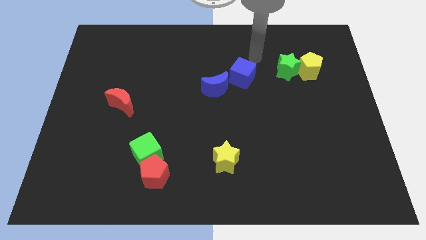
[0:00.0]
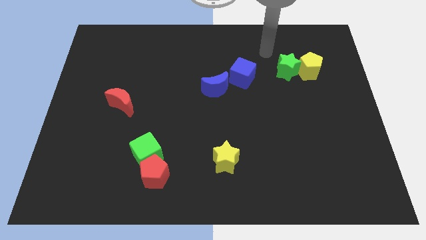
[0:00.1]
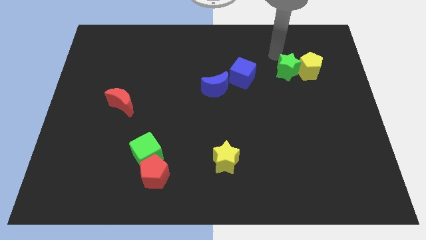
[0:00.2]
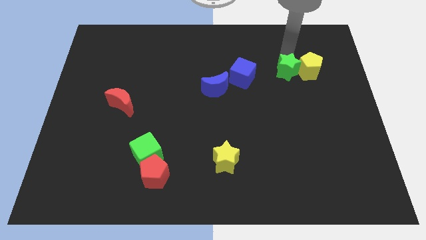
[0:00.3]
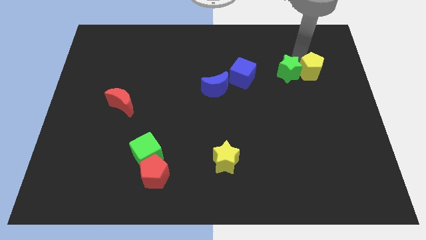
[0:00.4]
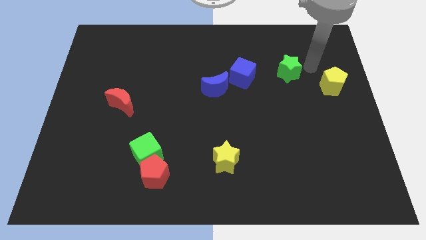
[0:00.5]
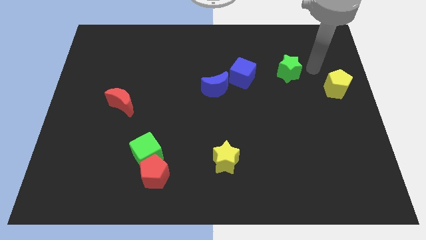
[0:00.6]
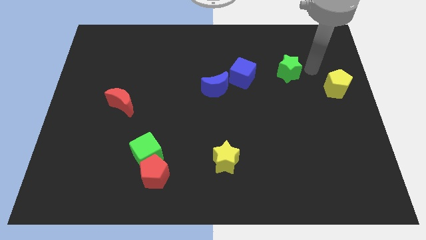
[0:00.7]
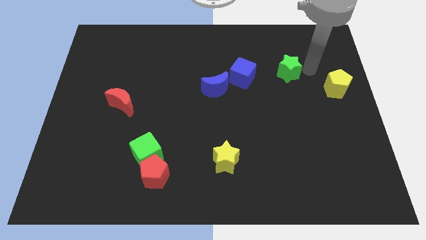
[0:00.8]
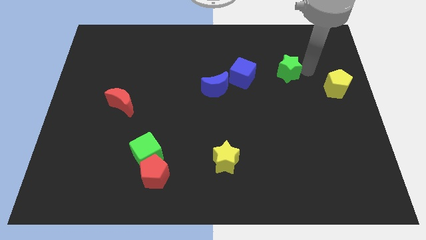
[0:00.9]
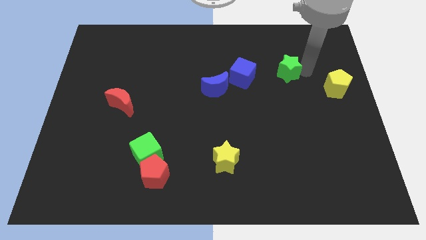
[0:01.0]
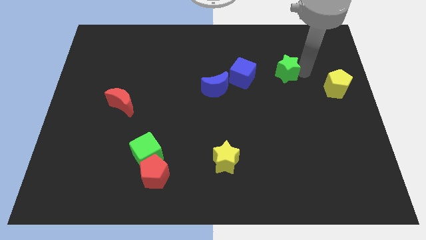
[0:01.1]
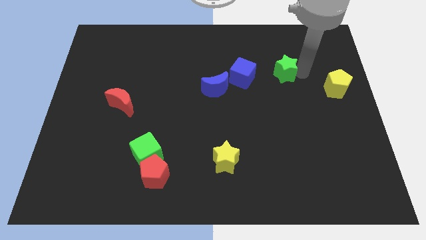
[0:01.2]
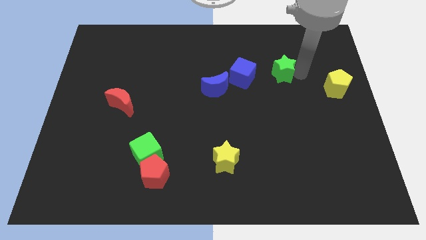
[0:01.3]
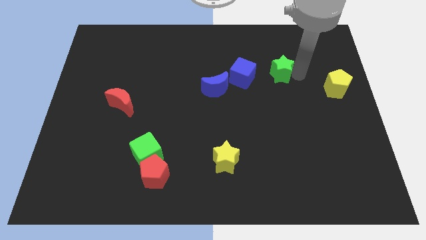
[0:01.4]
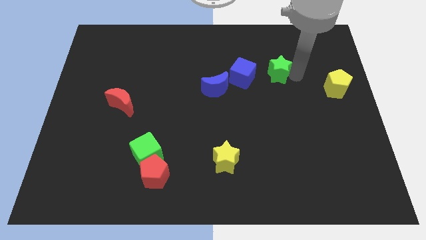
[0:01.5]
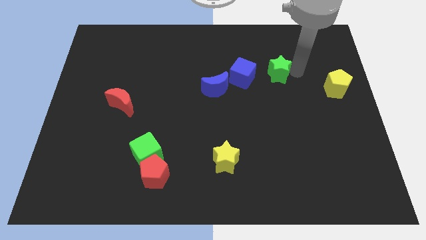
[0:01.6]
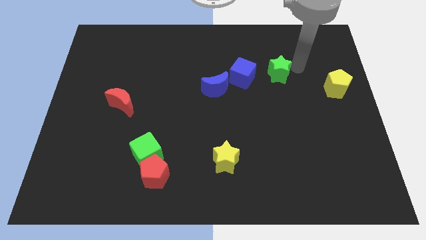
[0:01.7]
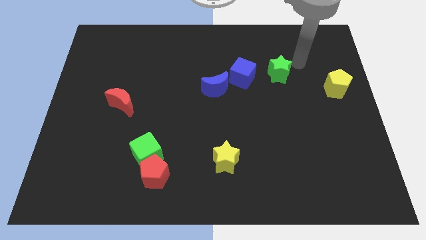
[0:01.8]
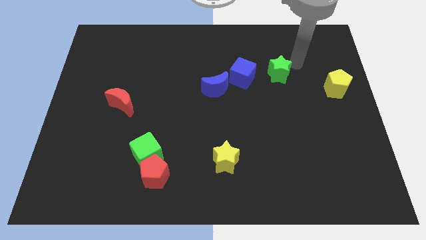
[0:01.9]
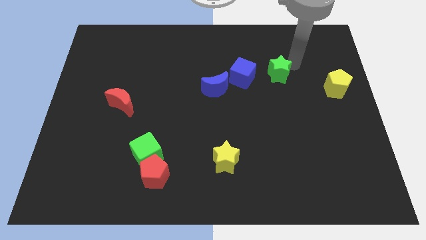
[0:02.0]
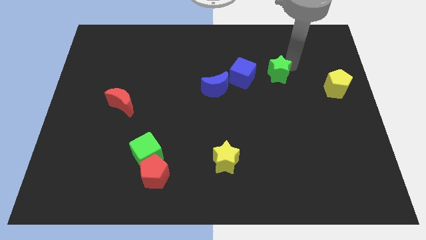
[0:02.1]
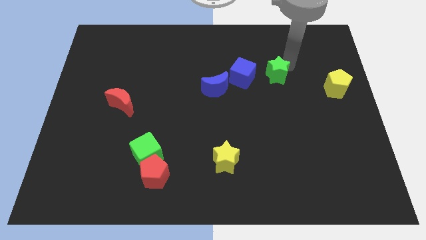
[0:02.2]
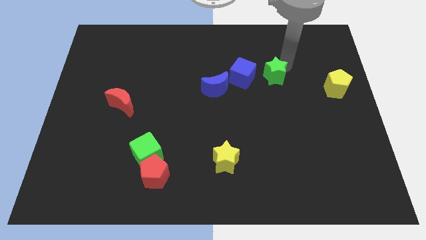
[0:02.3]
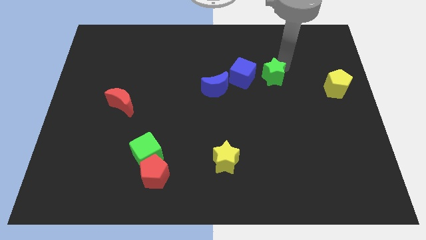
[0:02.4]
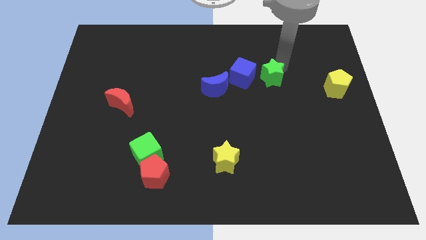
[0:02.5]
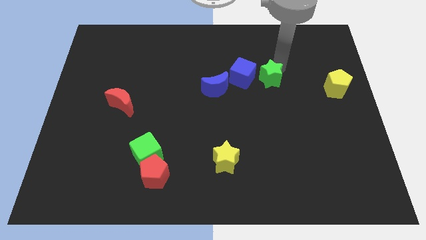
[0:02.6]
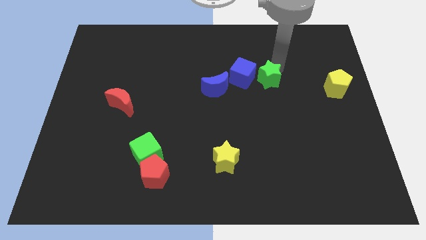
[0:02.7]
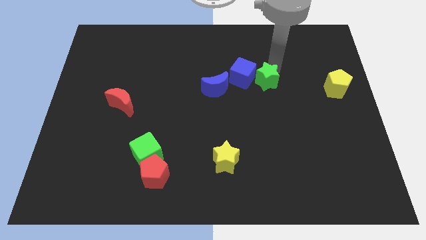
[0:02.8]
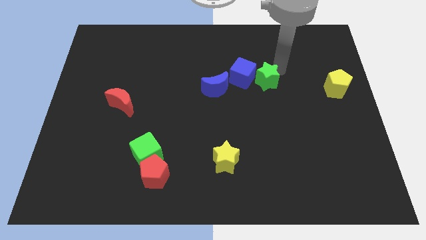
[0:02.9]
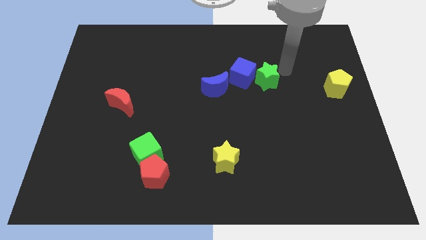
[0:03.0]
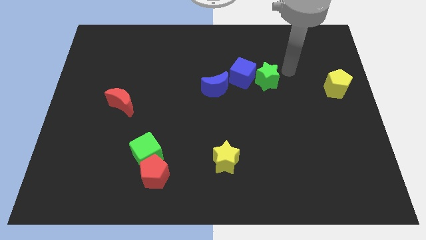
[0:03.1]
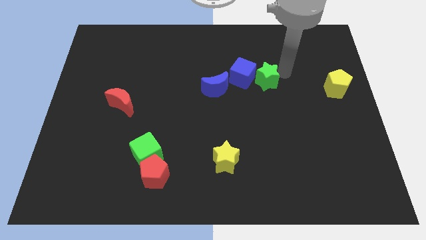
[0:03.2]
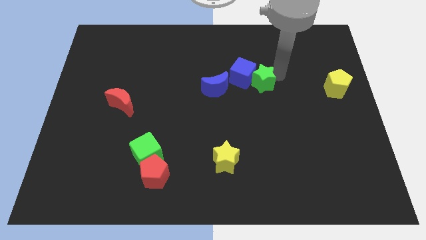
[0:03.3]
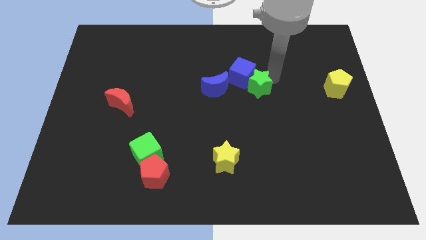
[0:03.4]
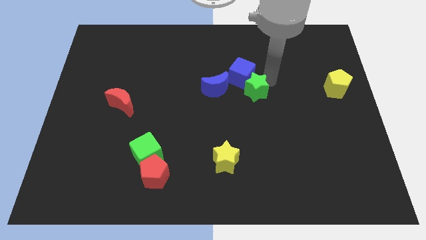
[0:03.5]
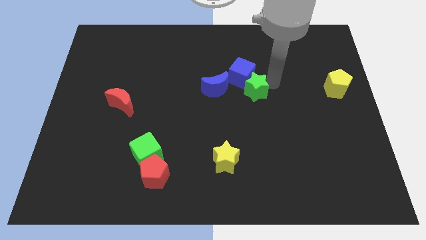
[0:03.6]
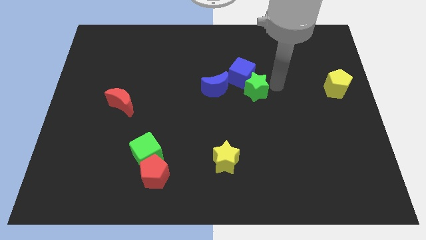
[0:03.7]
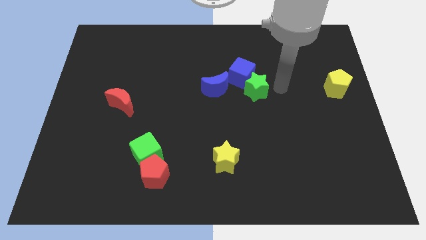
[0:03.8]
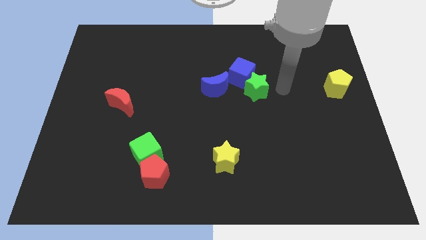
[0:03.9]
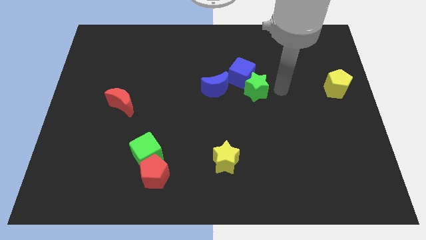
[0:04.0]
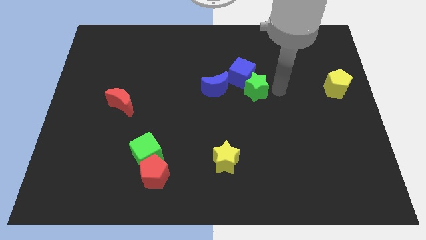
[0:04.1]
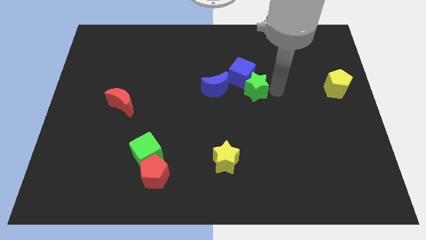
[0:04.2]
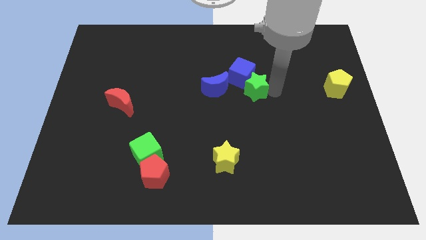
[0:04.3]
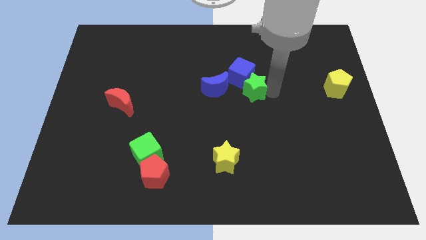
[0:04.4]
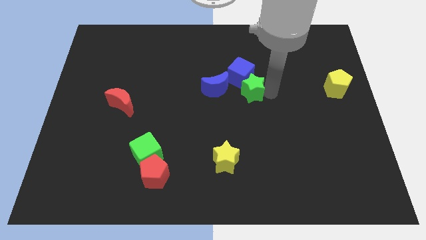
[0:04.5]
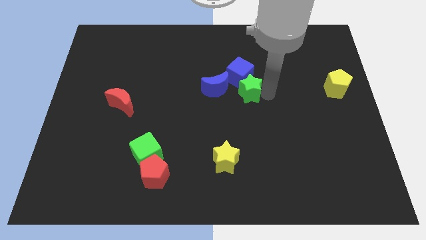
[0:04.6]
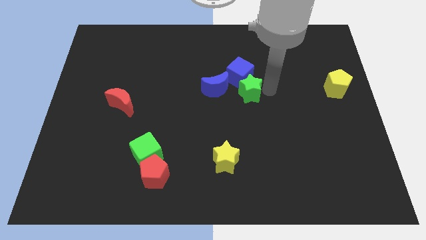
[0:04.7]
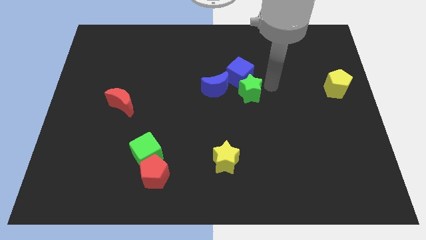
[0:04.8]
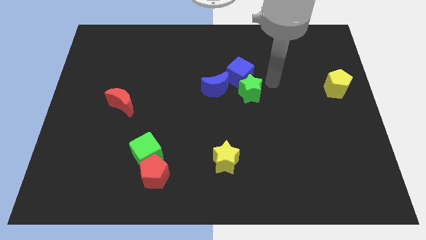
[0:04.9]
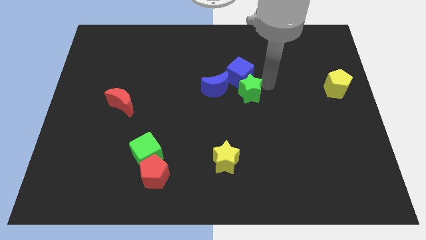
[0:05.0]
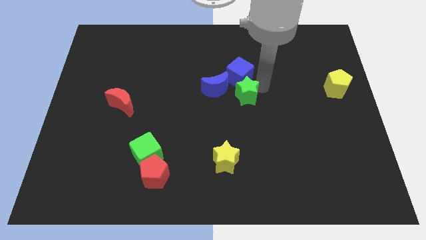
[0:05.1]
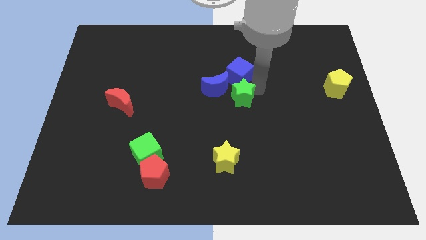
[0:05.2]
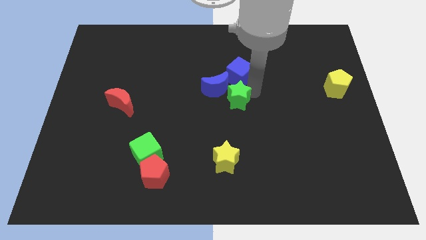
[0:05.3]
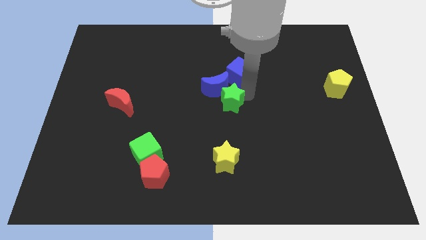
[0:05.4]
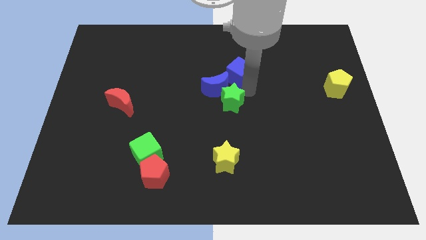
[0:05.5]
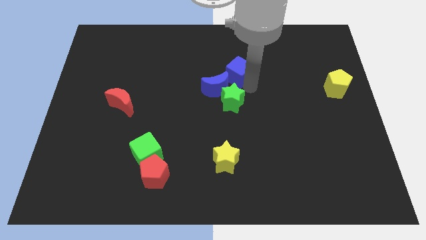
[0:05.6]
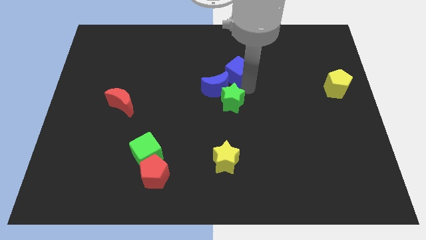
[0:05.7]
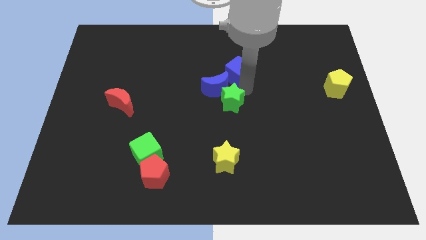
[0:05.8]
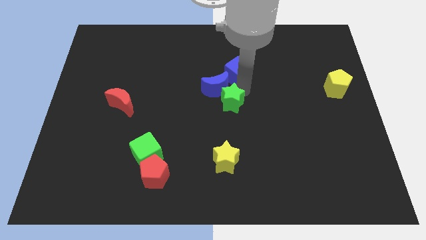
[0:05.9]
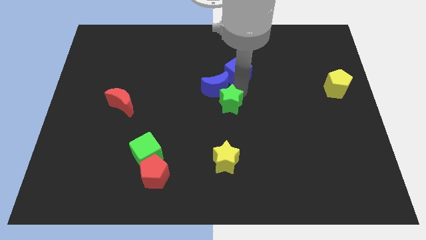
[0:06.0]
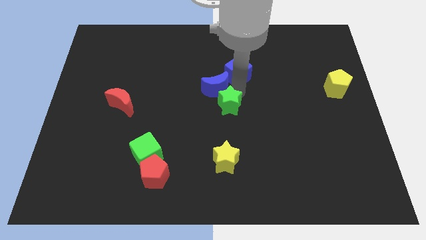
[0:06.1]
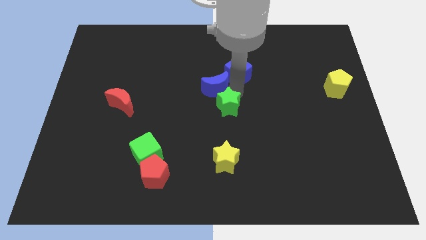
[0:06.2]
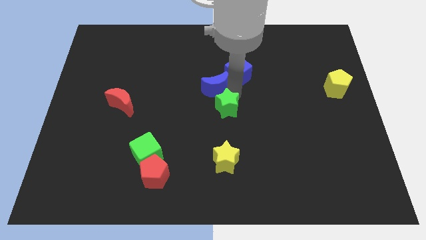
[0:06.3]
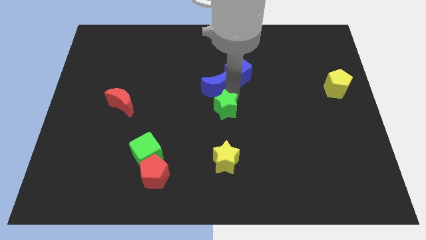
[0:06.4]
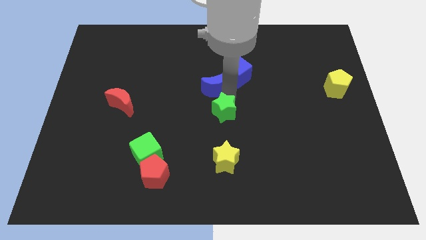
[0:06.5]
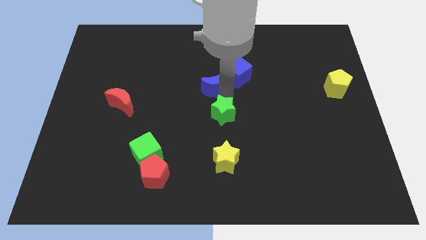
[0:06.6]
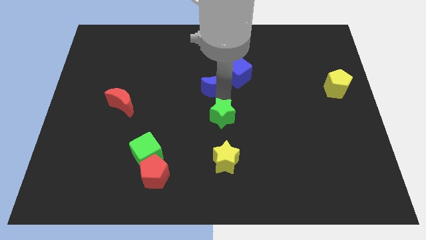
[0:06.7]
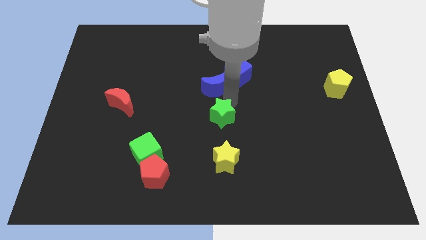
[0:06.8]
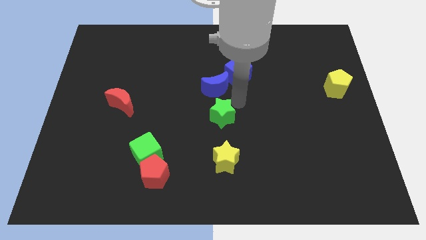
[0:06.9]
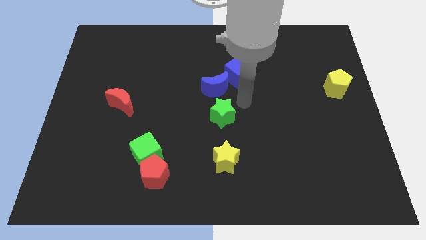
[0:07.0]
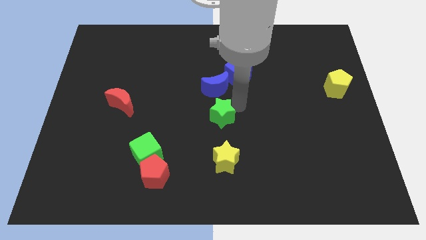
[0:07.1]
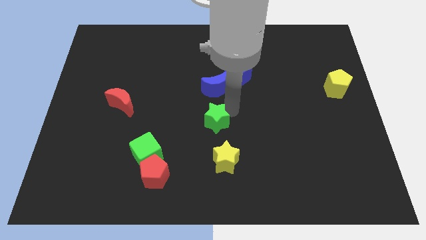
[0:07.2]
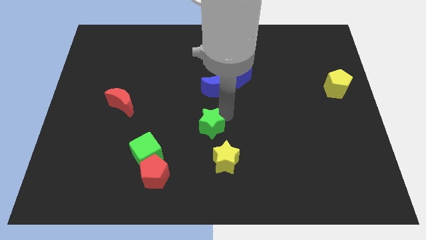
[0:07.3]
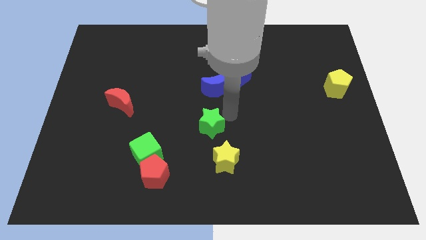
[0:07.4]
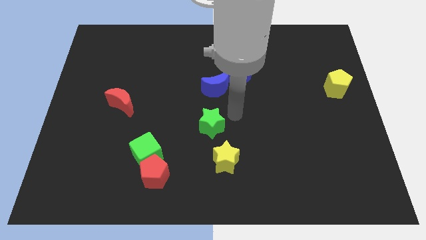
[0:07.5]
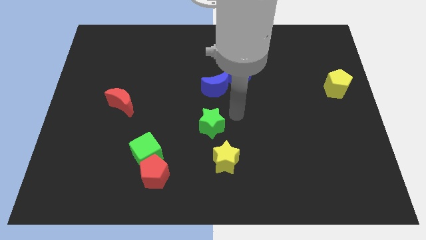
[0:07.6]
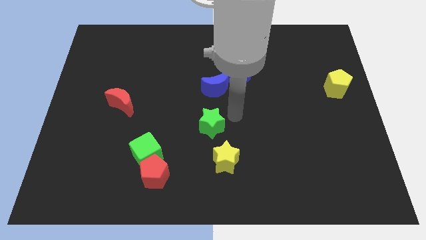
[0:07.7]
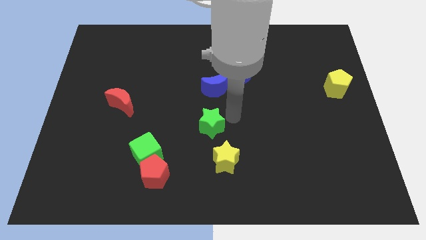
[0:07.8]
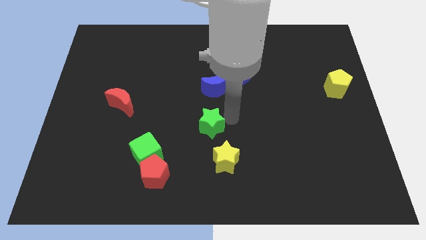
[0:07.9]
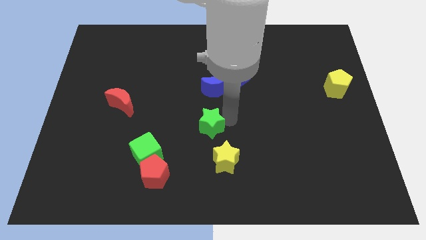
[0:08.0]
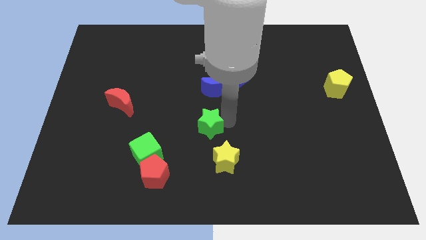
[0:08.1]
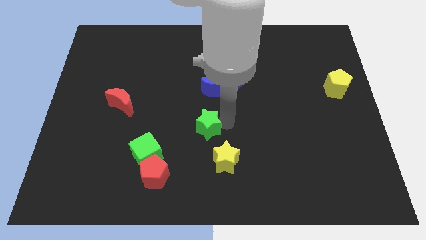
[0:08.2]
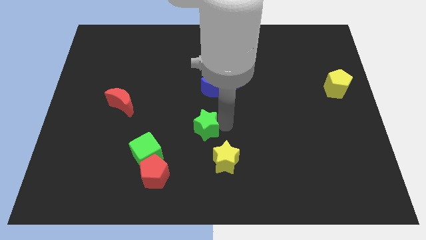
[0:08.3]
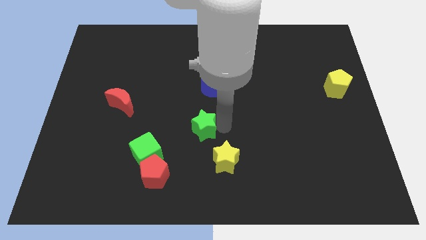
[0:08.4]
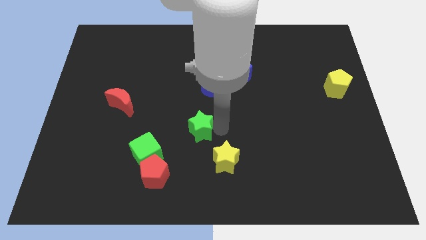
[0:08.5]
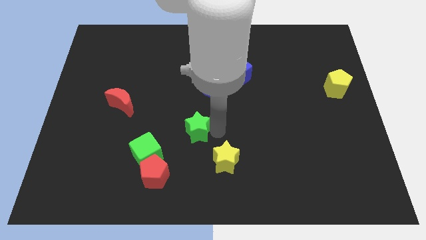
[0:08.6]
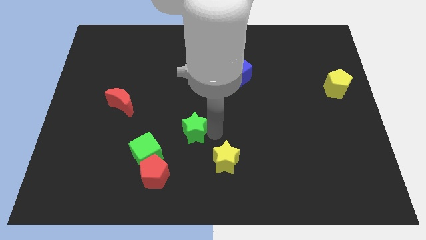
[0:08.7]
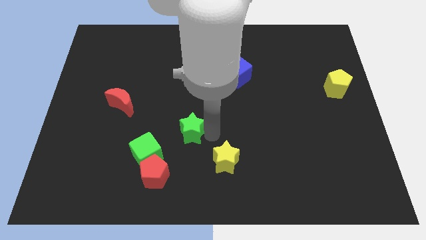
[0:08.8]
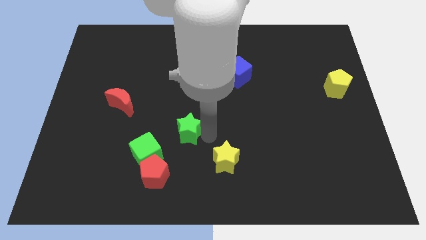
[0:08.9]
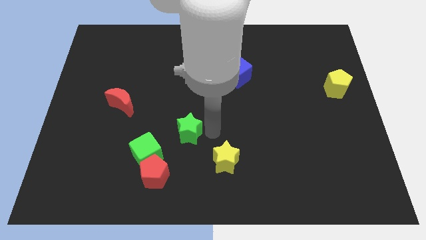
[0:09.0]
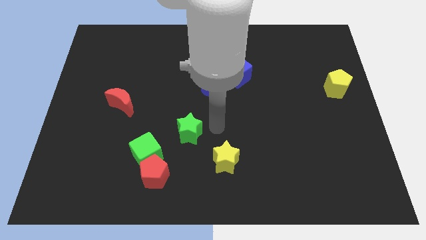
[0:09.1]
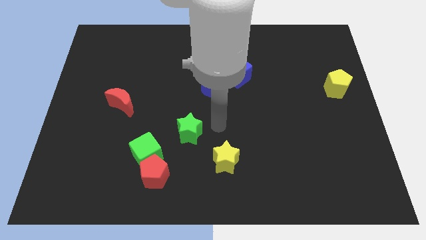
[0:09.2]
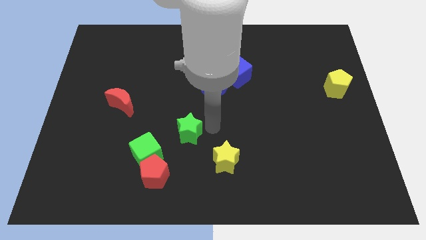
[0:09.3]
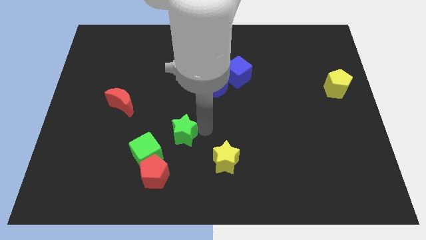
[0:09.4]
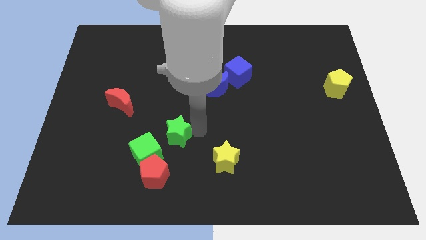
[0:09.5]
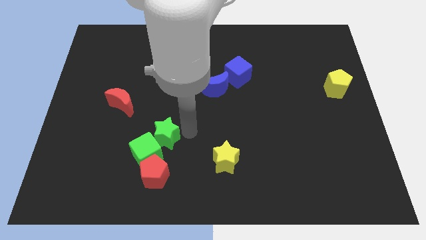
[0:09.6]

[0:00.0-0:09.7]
put the green star to the green cube
